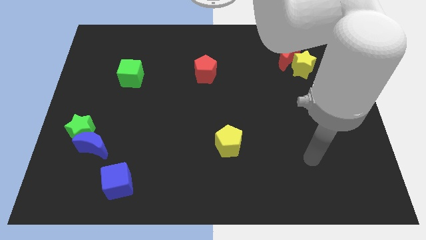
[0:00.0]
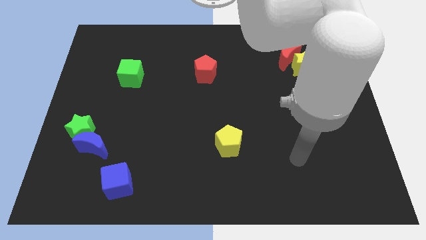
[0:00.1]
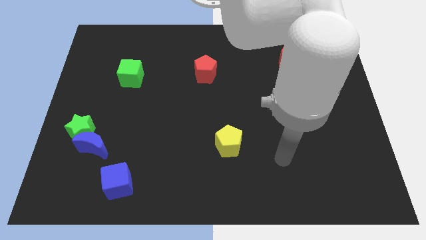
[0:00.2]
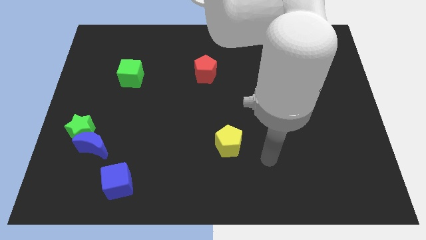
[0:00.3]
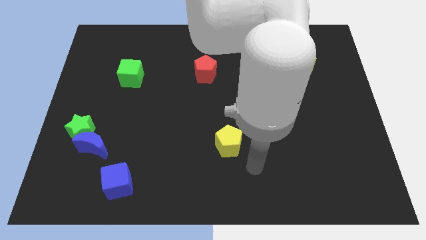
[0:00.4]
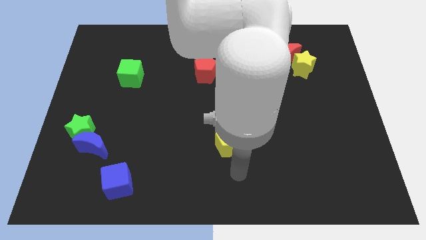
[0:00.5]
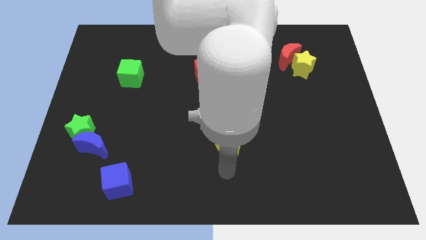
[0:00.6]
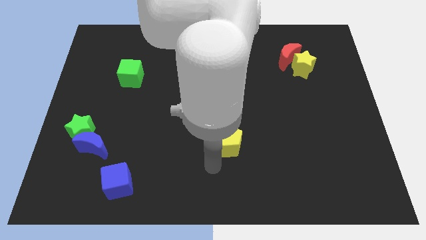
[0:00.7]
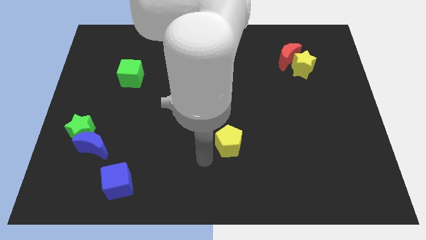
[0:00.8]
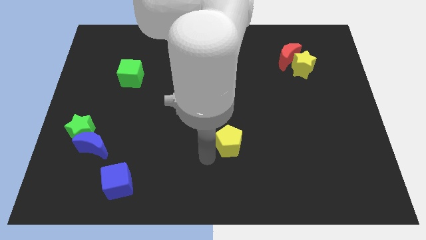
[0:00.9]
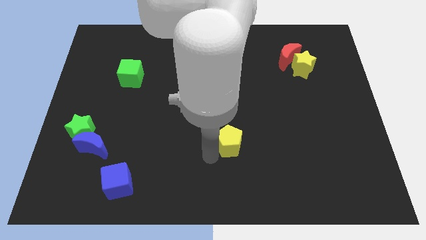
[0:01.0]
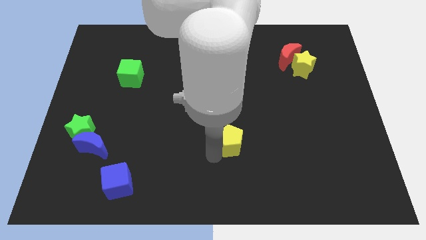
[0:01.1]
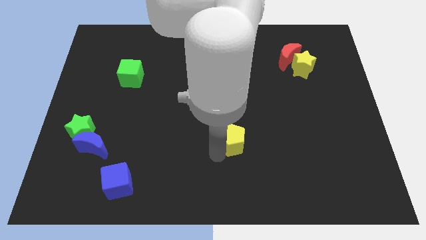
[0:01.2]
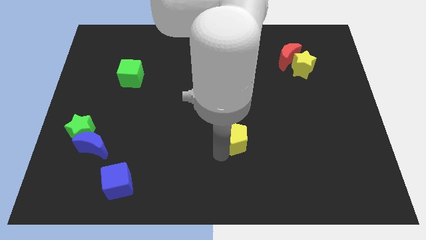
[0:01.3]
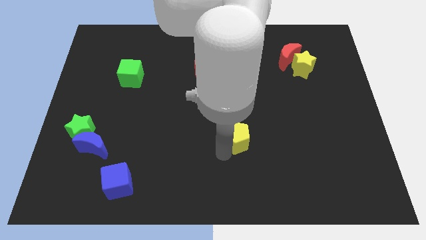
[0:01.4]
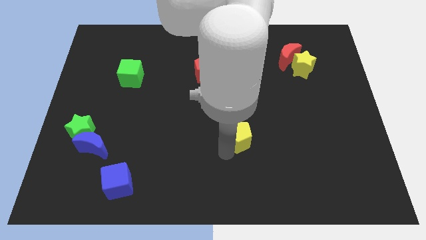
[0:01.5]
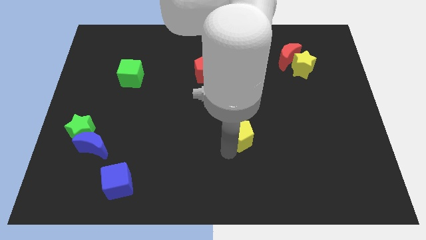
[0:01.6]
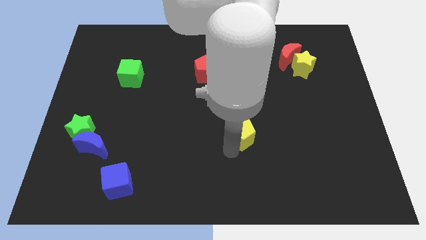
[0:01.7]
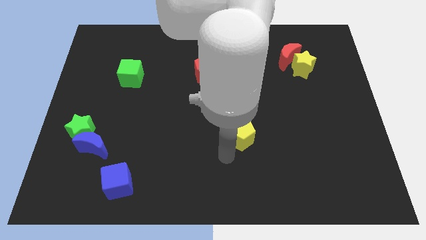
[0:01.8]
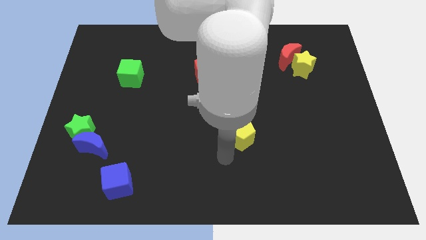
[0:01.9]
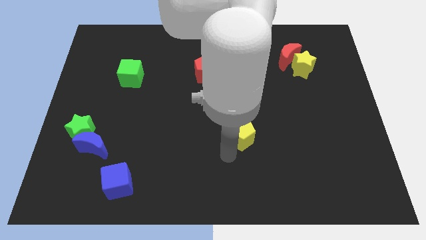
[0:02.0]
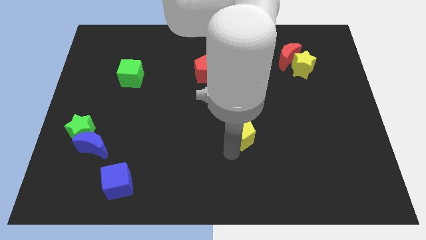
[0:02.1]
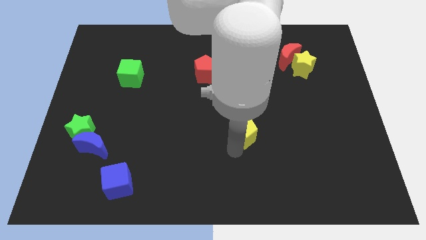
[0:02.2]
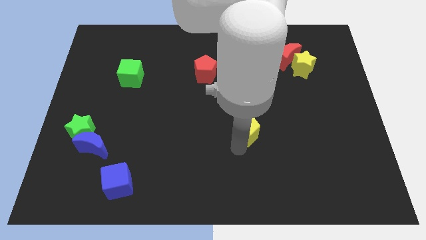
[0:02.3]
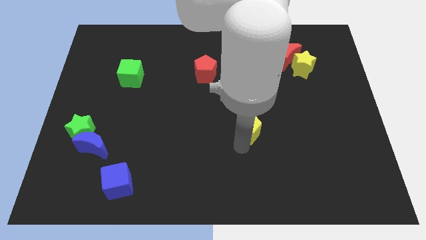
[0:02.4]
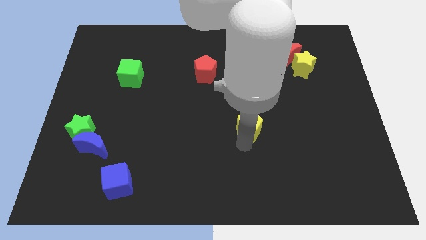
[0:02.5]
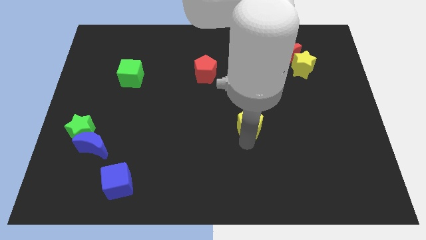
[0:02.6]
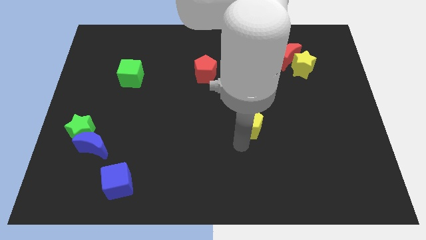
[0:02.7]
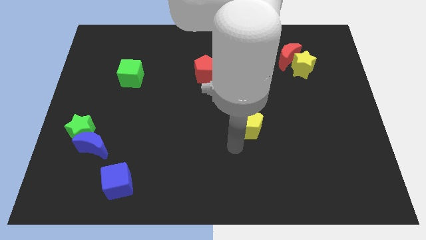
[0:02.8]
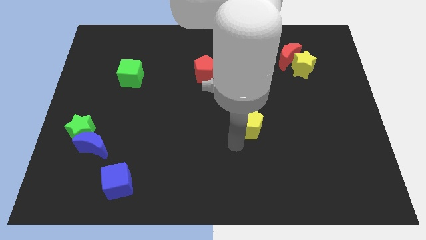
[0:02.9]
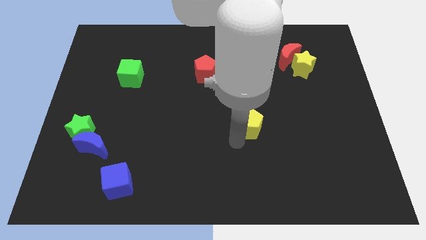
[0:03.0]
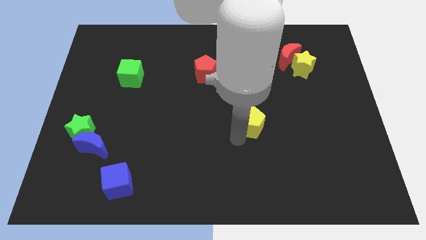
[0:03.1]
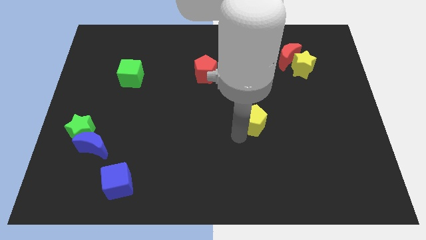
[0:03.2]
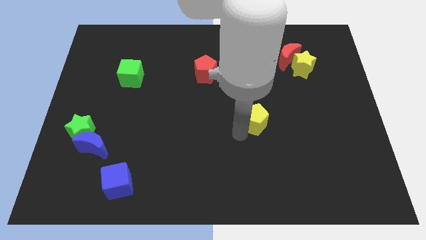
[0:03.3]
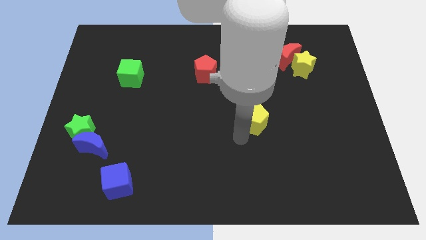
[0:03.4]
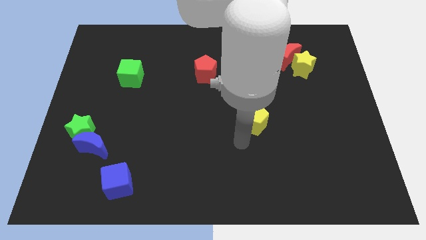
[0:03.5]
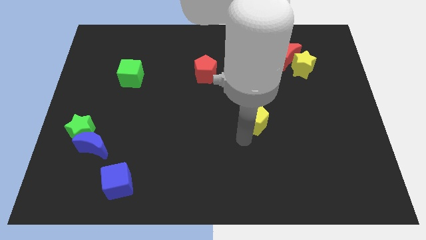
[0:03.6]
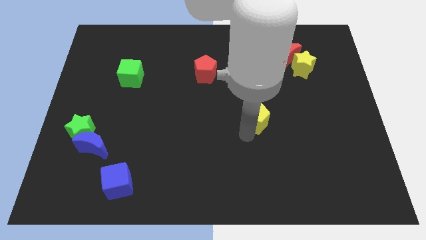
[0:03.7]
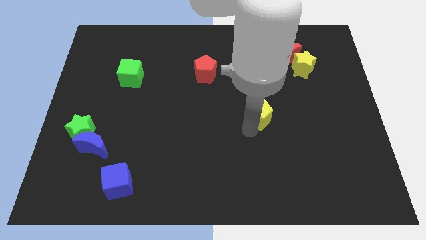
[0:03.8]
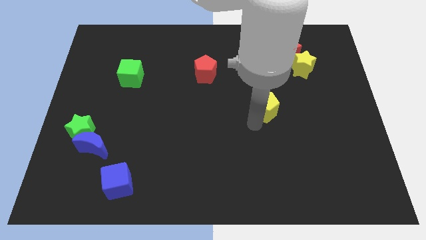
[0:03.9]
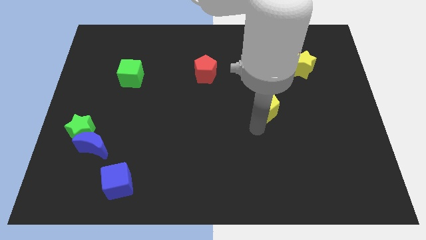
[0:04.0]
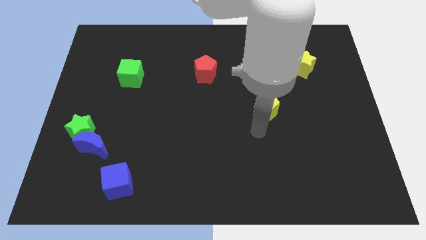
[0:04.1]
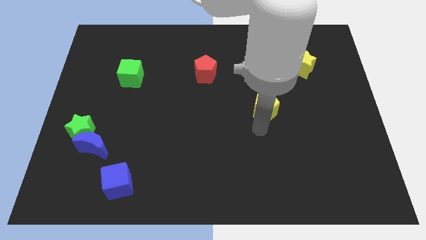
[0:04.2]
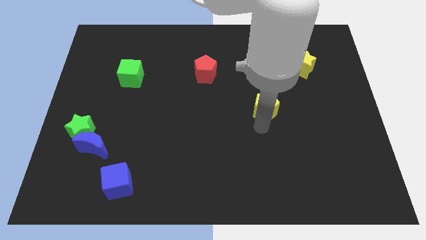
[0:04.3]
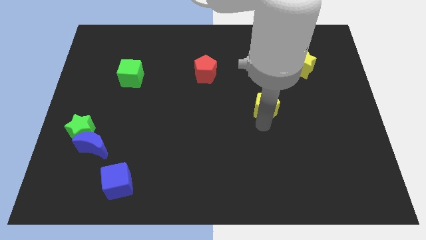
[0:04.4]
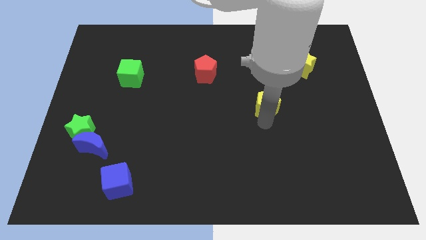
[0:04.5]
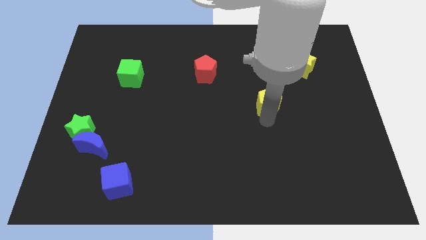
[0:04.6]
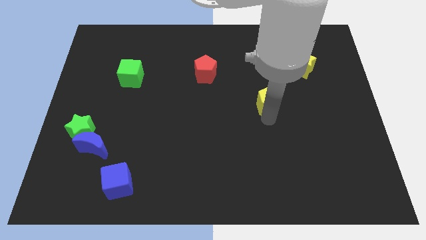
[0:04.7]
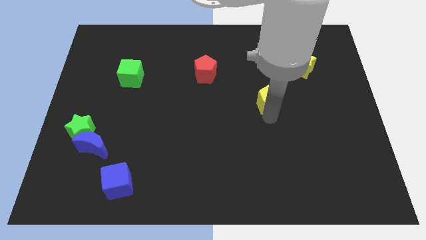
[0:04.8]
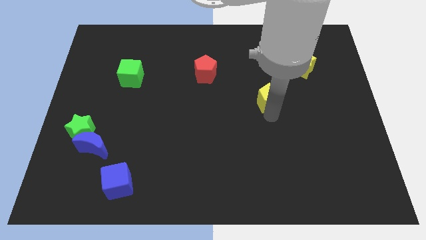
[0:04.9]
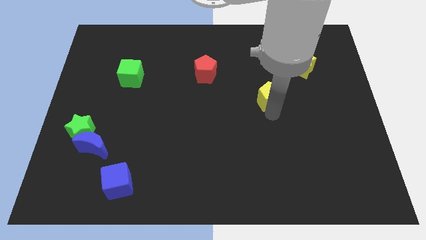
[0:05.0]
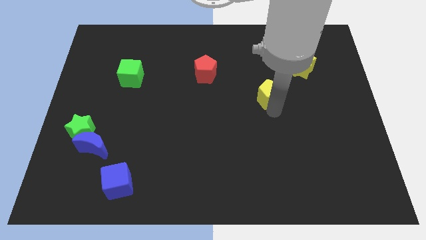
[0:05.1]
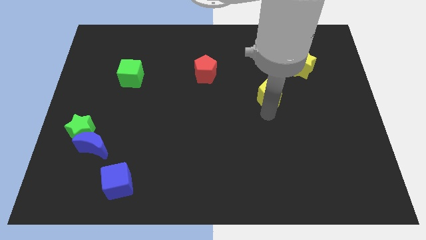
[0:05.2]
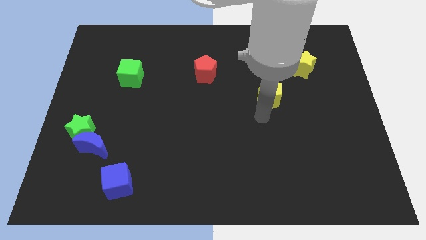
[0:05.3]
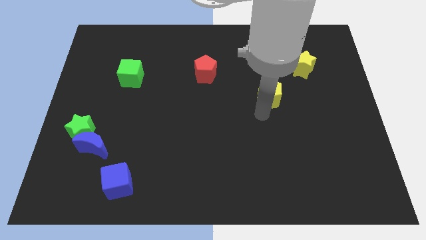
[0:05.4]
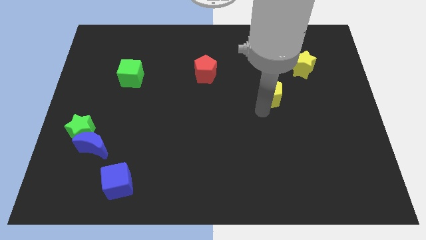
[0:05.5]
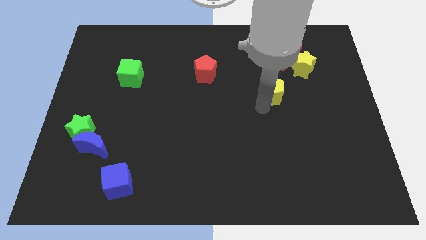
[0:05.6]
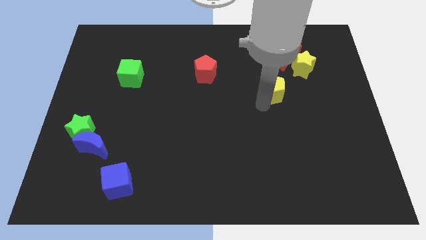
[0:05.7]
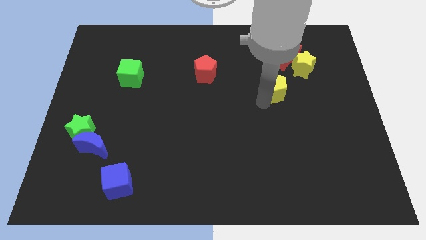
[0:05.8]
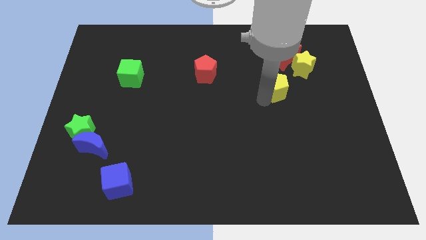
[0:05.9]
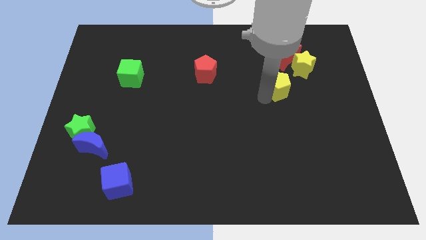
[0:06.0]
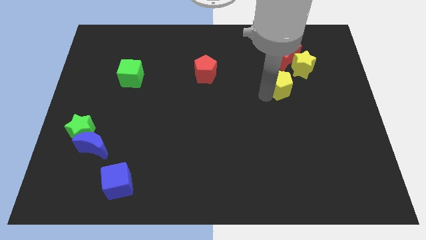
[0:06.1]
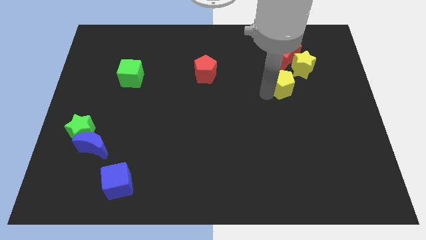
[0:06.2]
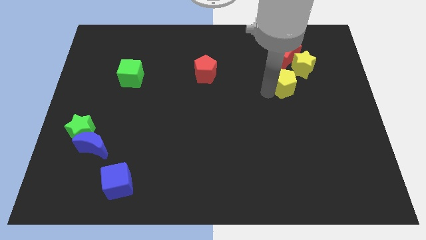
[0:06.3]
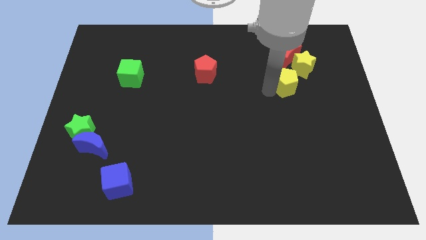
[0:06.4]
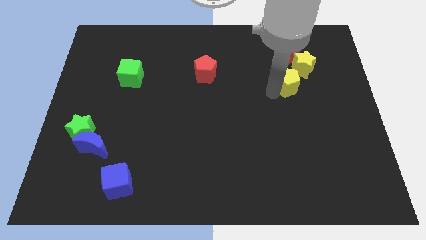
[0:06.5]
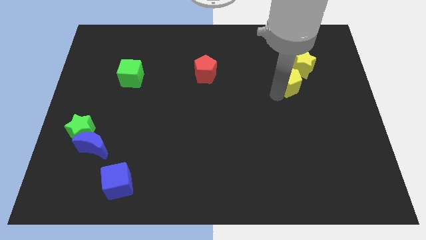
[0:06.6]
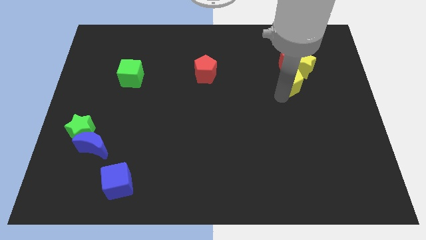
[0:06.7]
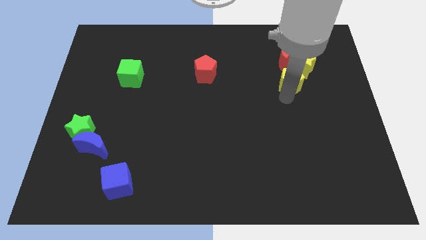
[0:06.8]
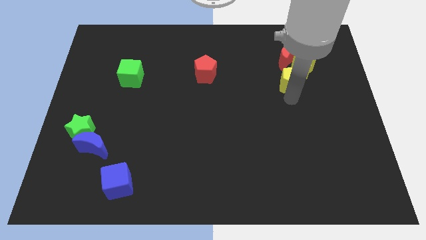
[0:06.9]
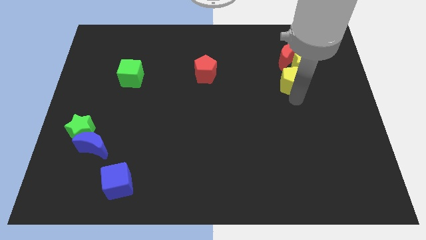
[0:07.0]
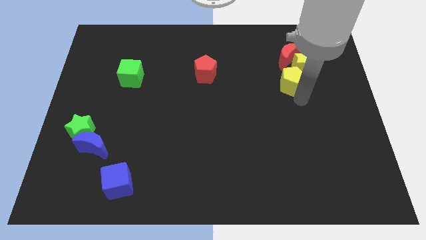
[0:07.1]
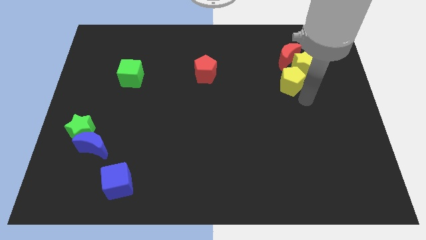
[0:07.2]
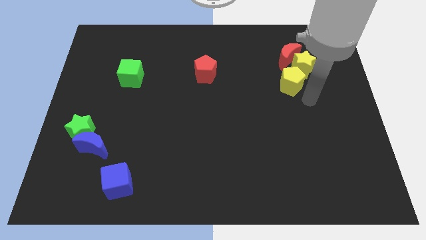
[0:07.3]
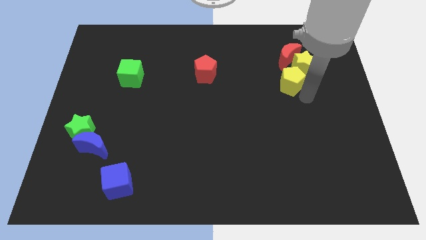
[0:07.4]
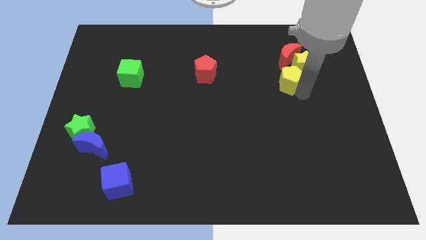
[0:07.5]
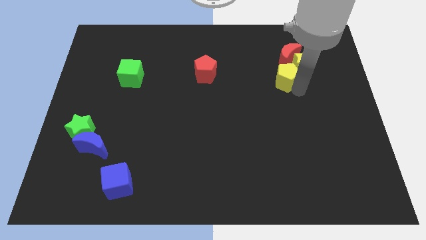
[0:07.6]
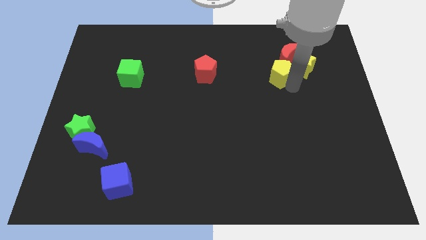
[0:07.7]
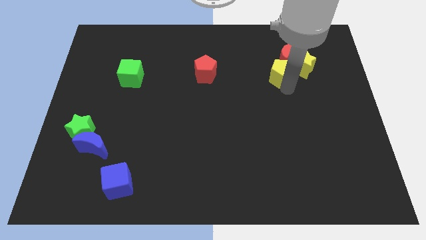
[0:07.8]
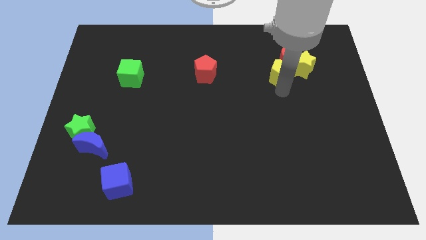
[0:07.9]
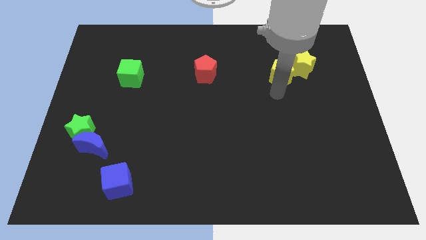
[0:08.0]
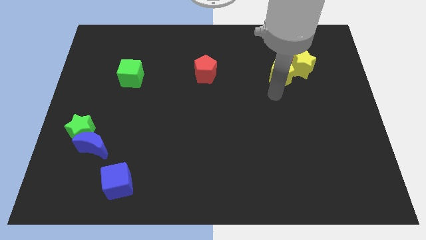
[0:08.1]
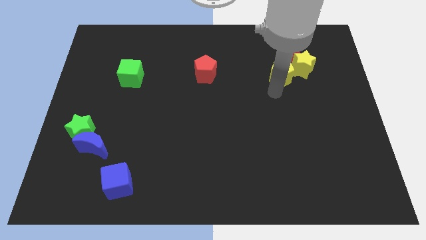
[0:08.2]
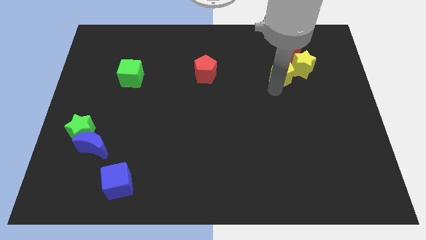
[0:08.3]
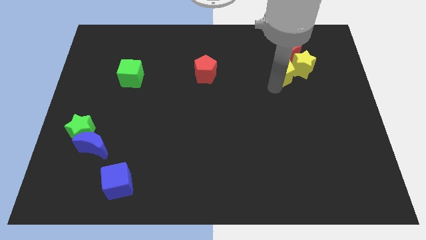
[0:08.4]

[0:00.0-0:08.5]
push the yellow pentagon close to the red moon
